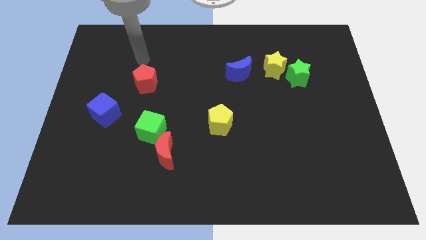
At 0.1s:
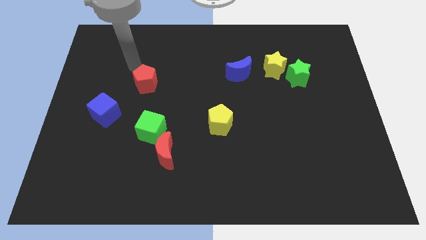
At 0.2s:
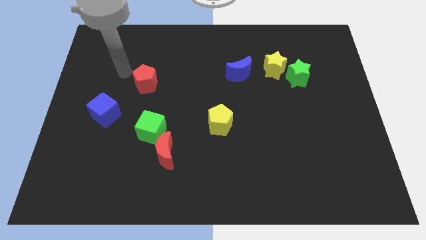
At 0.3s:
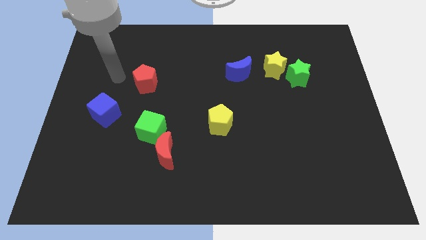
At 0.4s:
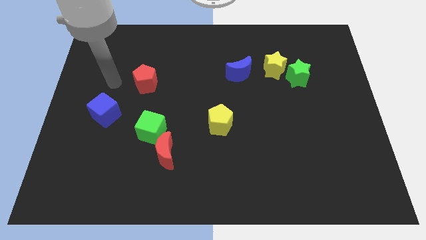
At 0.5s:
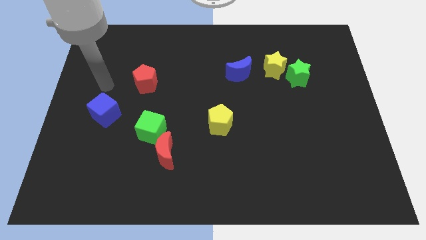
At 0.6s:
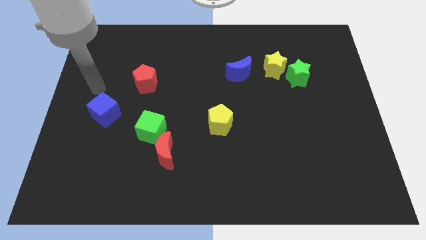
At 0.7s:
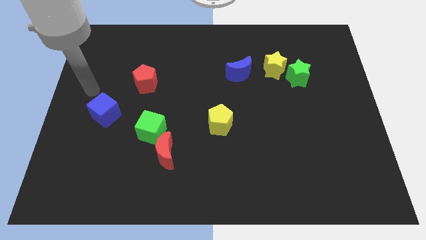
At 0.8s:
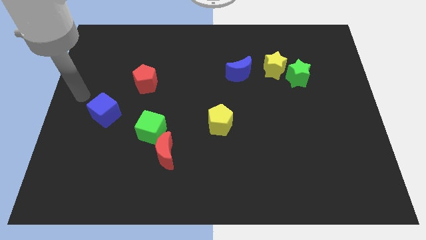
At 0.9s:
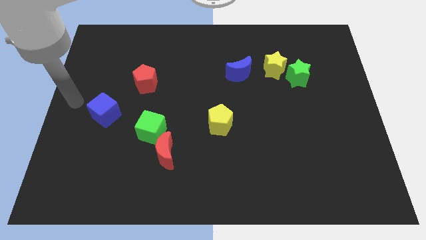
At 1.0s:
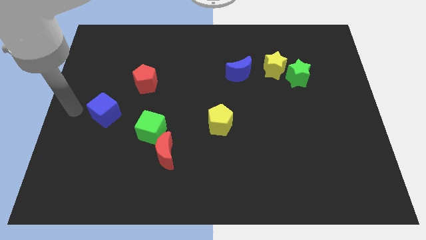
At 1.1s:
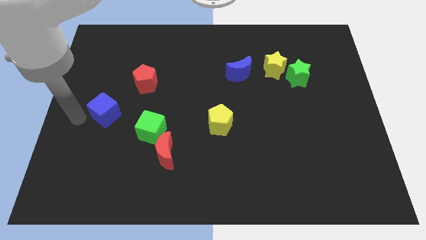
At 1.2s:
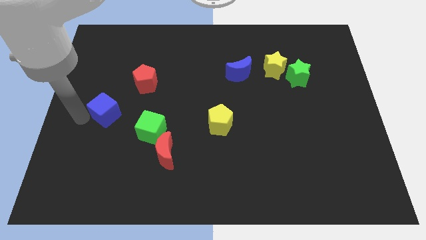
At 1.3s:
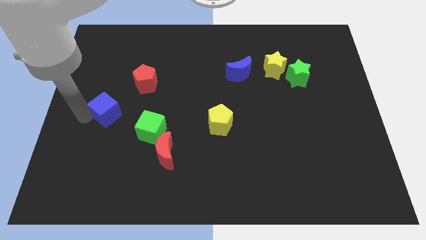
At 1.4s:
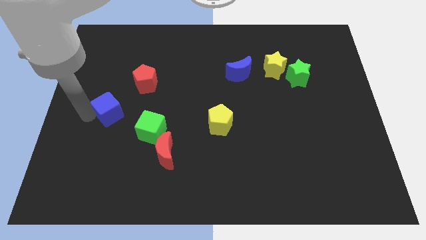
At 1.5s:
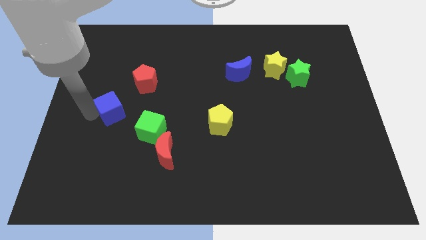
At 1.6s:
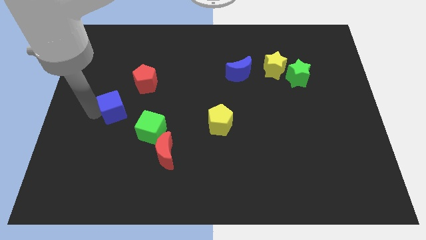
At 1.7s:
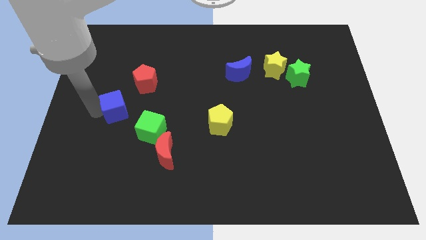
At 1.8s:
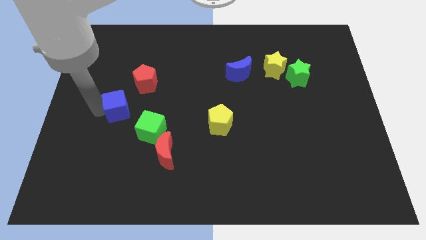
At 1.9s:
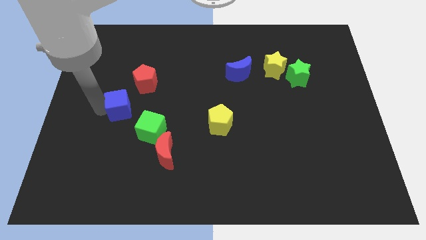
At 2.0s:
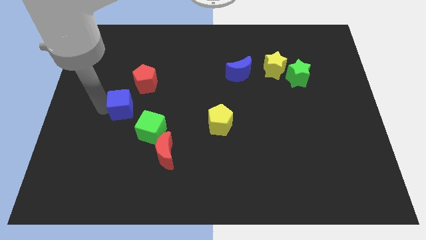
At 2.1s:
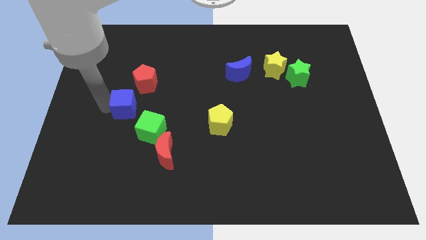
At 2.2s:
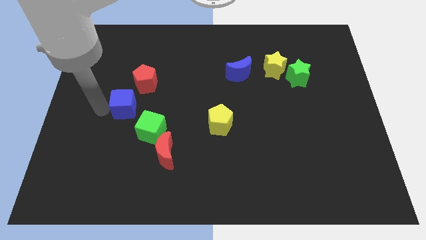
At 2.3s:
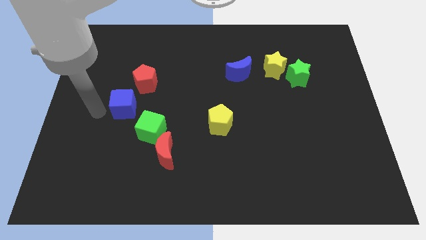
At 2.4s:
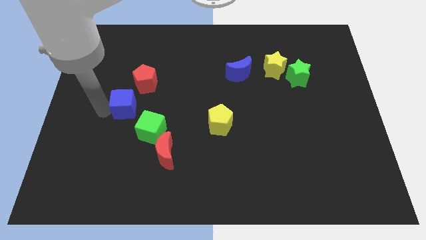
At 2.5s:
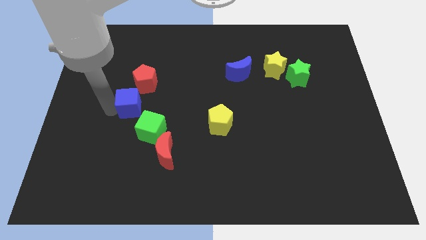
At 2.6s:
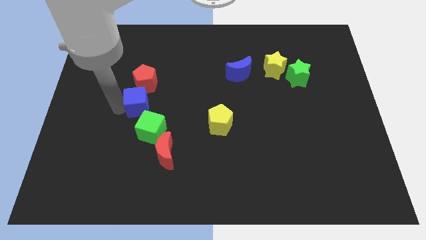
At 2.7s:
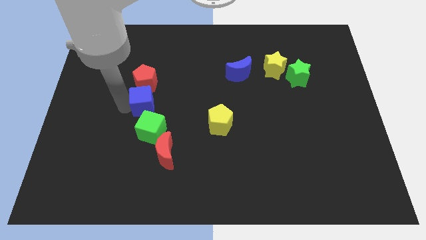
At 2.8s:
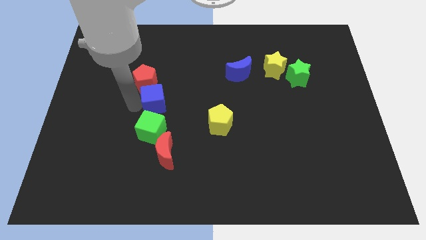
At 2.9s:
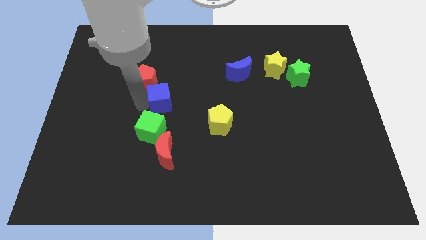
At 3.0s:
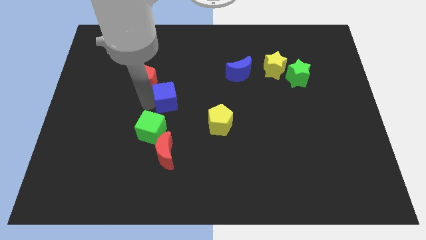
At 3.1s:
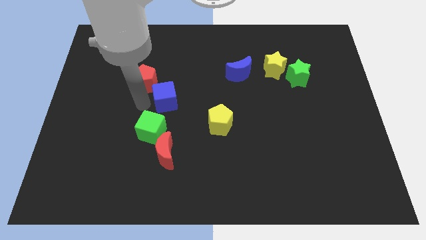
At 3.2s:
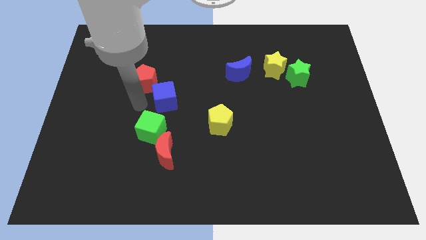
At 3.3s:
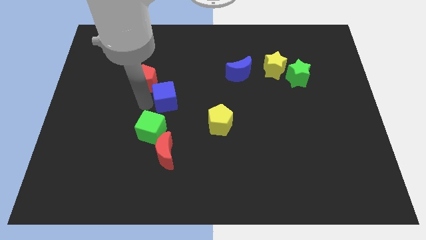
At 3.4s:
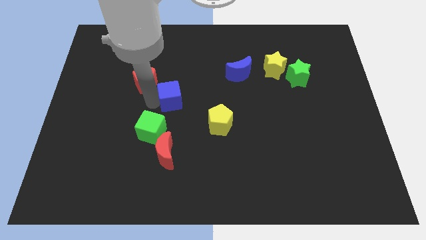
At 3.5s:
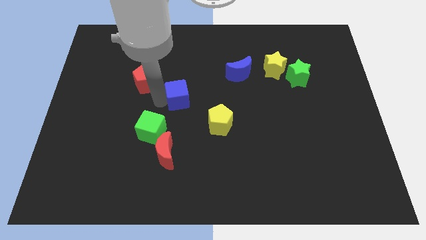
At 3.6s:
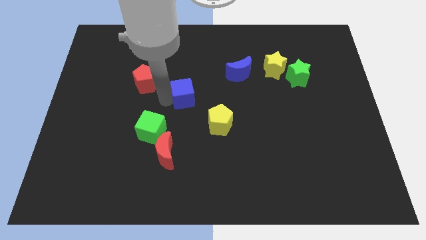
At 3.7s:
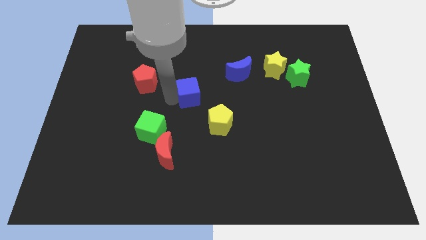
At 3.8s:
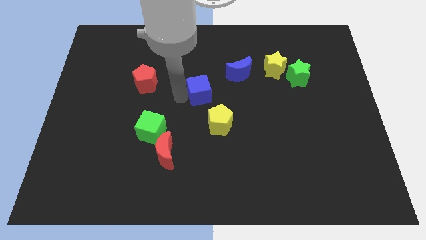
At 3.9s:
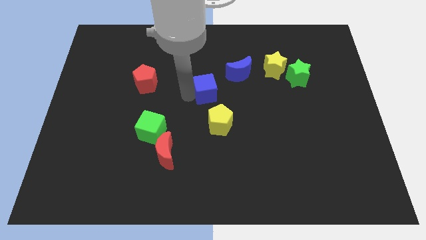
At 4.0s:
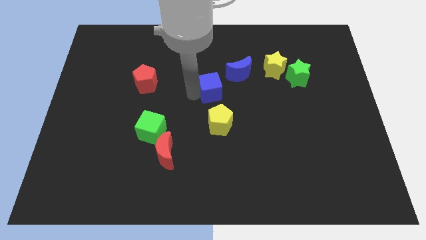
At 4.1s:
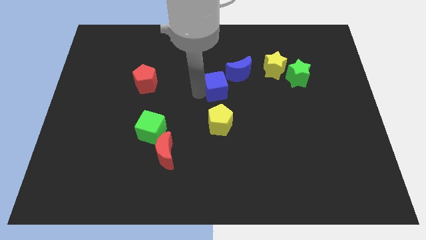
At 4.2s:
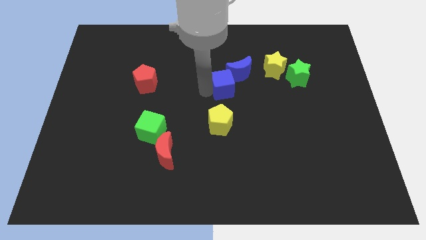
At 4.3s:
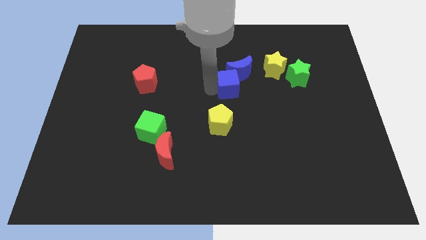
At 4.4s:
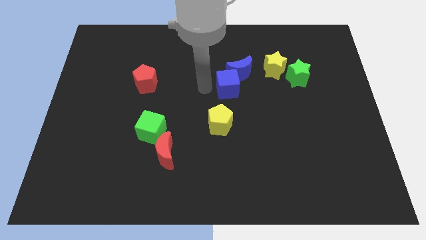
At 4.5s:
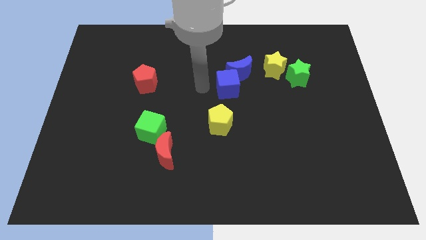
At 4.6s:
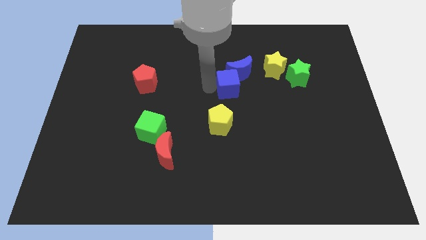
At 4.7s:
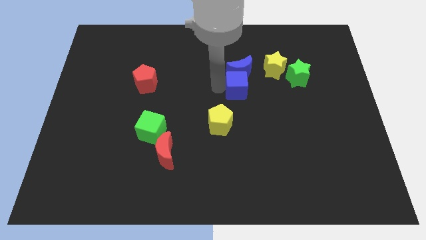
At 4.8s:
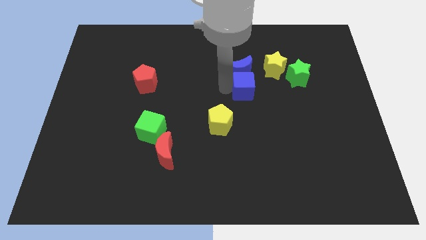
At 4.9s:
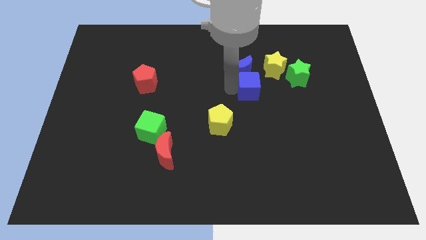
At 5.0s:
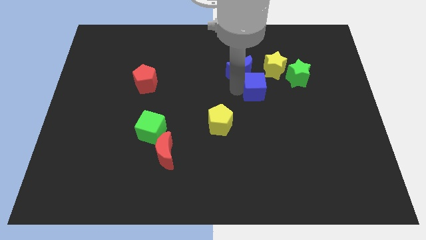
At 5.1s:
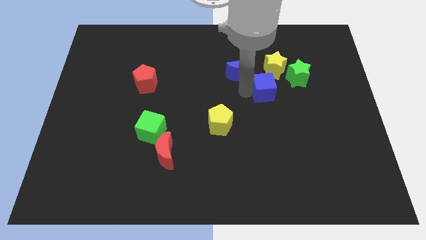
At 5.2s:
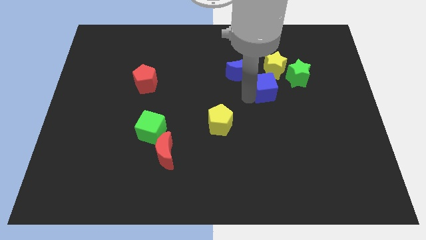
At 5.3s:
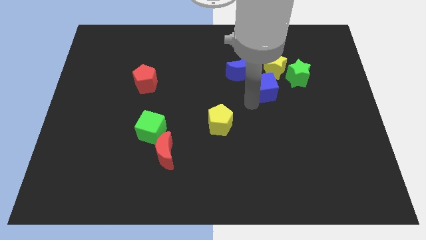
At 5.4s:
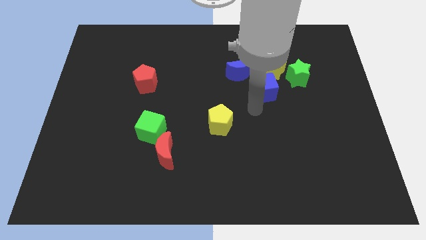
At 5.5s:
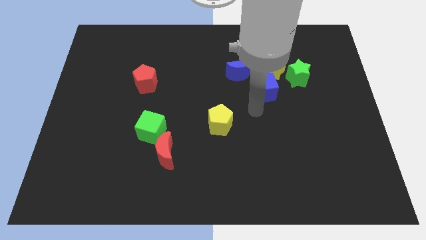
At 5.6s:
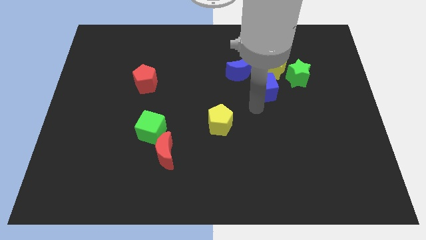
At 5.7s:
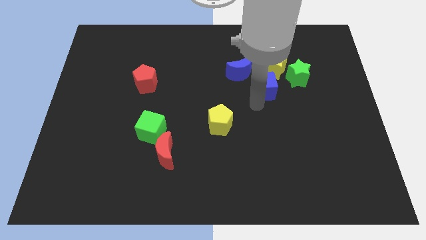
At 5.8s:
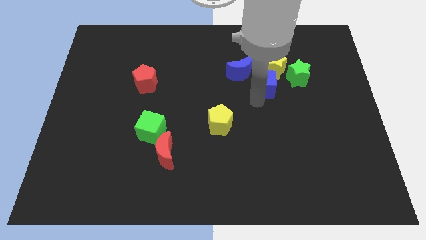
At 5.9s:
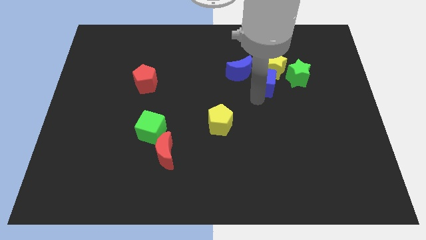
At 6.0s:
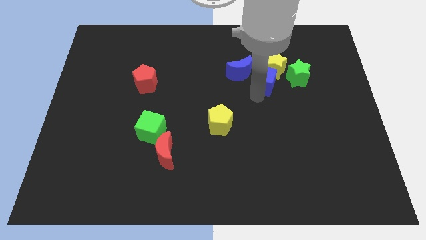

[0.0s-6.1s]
move the blue cube next to the yellow star

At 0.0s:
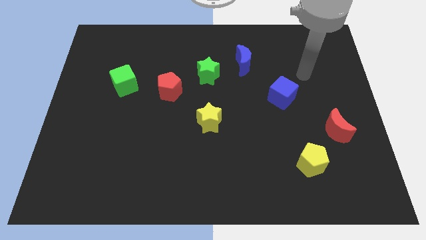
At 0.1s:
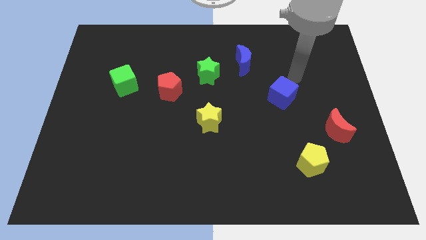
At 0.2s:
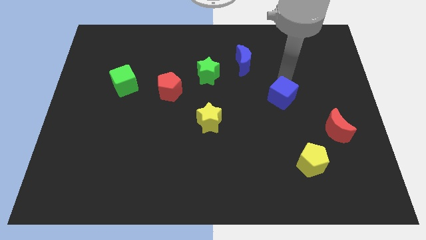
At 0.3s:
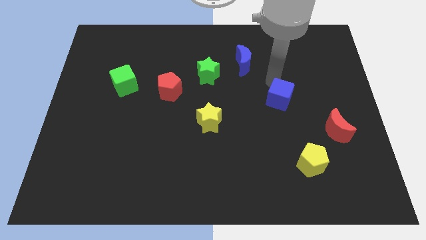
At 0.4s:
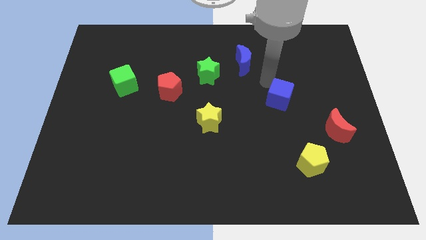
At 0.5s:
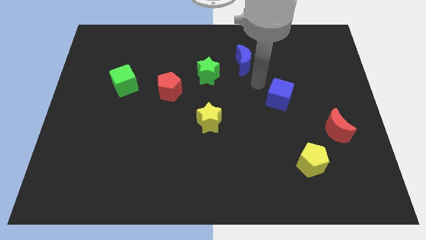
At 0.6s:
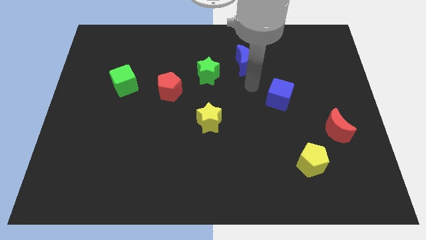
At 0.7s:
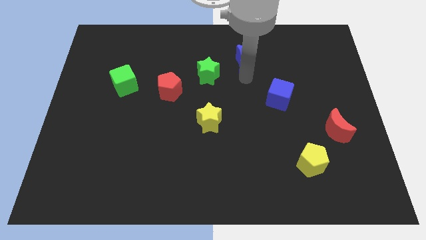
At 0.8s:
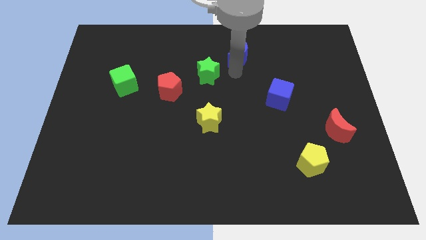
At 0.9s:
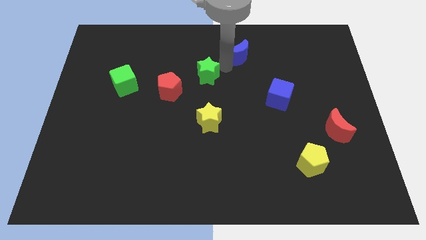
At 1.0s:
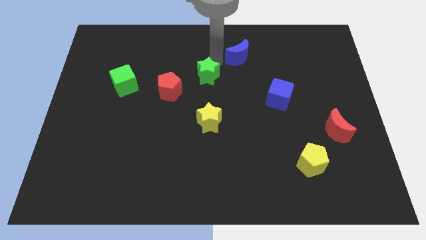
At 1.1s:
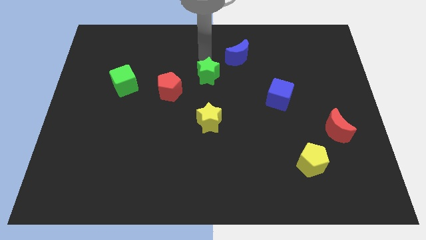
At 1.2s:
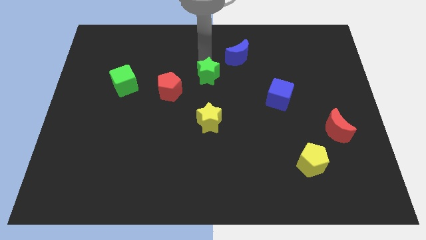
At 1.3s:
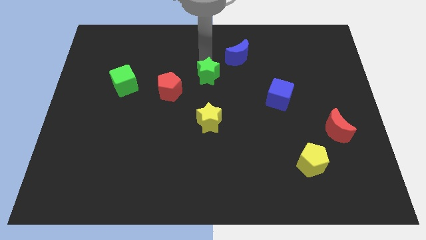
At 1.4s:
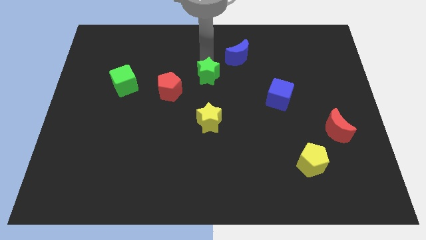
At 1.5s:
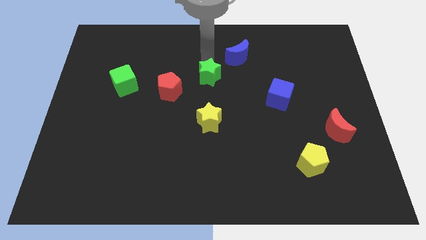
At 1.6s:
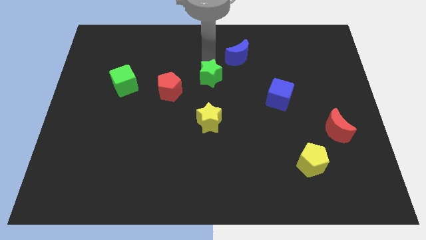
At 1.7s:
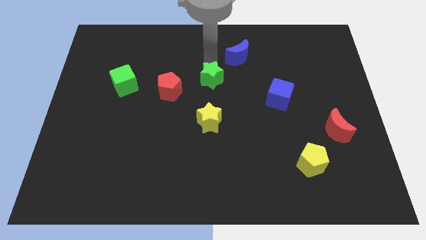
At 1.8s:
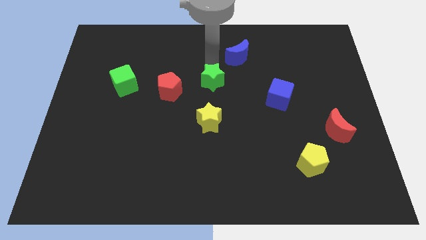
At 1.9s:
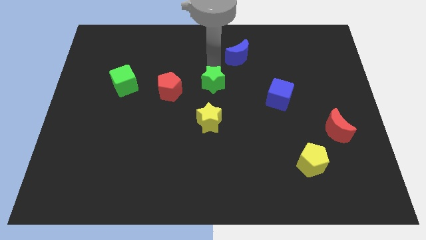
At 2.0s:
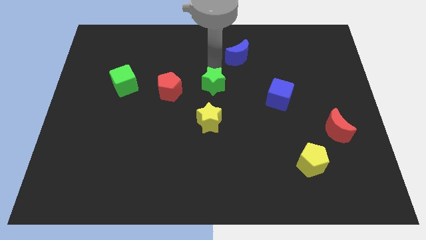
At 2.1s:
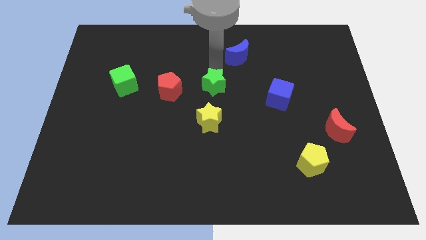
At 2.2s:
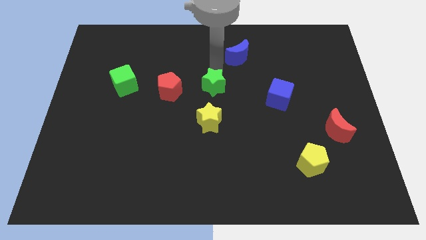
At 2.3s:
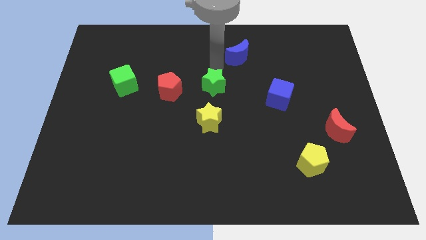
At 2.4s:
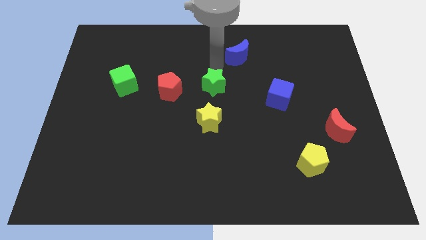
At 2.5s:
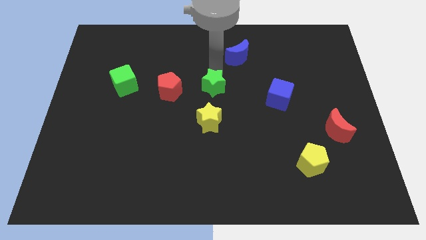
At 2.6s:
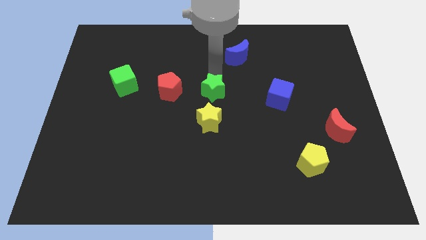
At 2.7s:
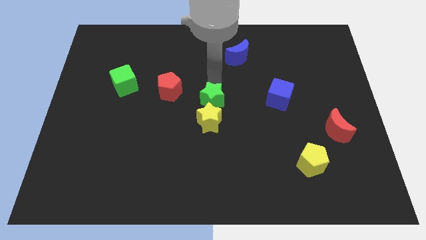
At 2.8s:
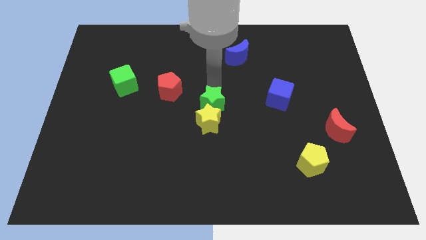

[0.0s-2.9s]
move the green star close to the yellow star
